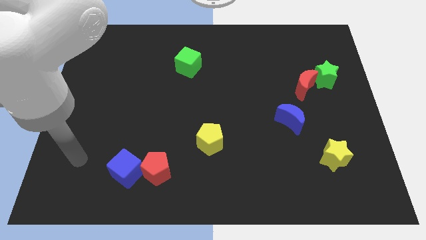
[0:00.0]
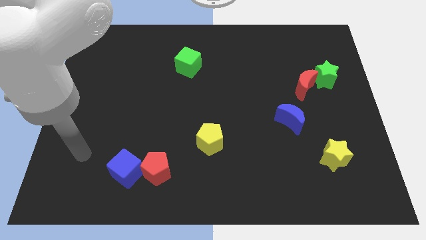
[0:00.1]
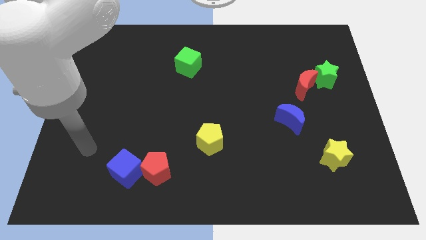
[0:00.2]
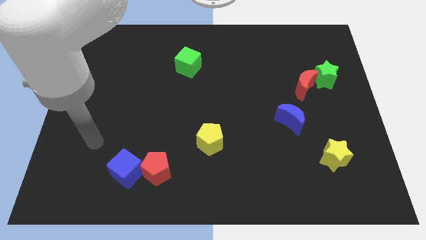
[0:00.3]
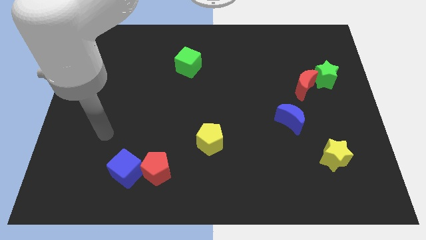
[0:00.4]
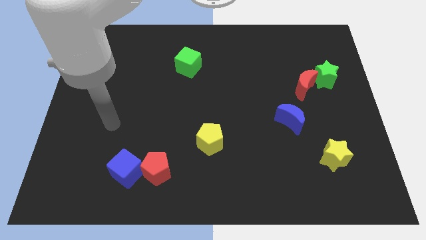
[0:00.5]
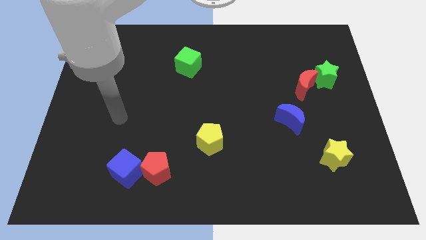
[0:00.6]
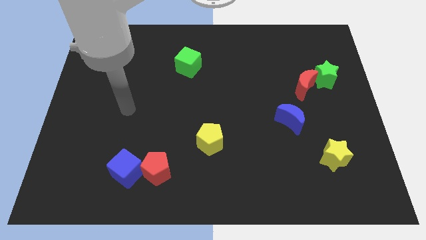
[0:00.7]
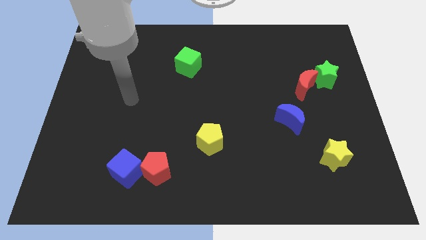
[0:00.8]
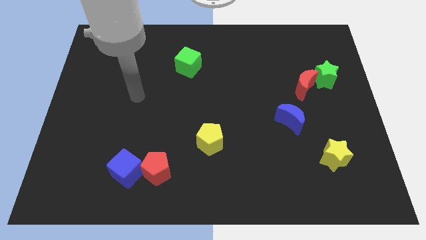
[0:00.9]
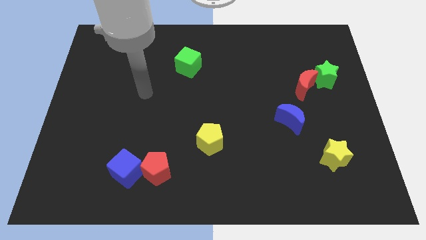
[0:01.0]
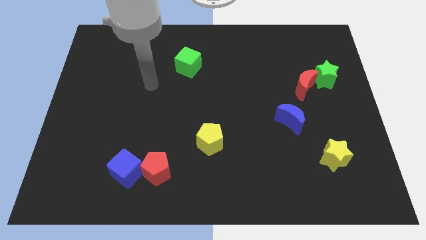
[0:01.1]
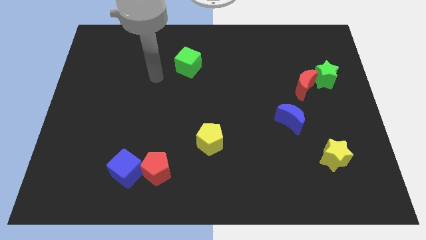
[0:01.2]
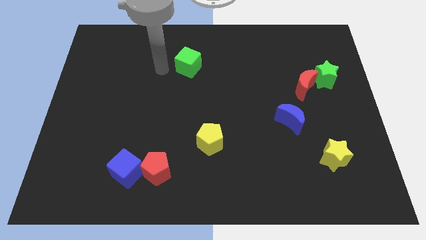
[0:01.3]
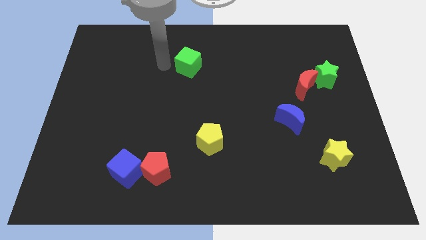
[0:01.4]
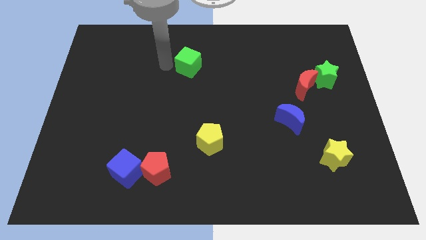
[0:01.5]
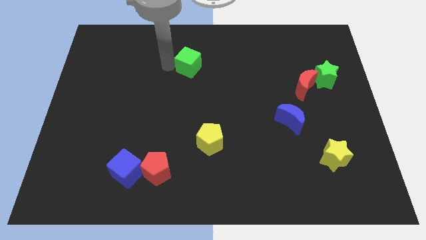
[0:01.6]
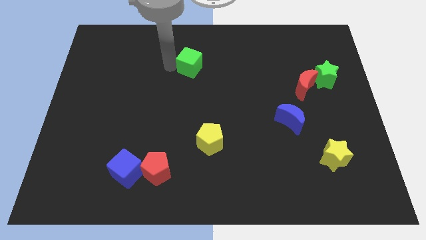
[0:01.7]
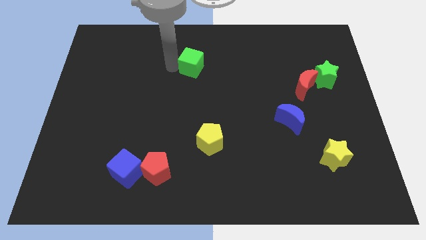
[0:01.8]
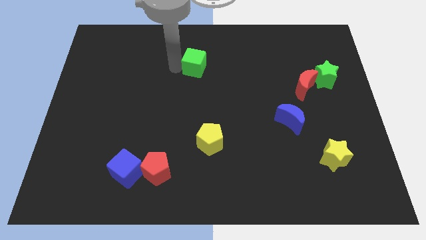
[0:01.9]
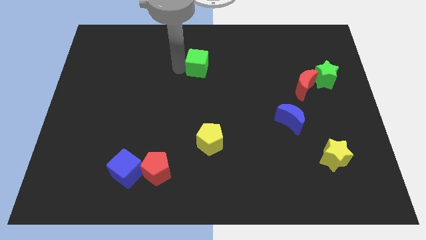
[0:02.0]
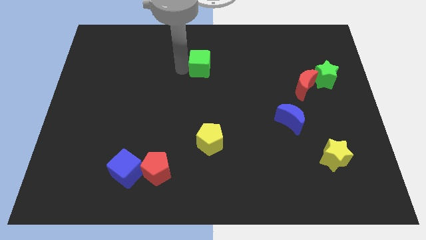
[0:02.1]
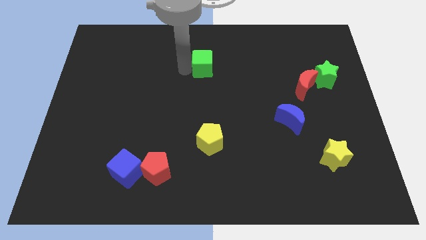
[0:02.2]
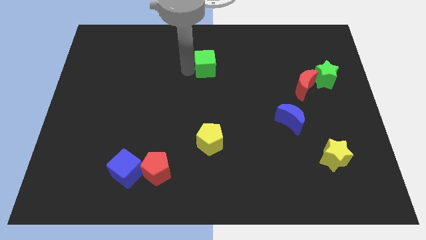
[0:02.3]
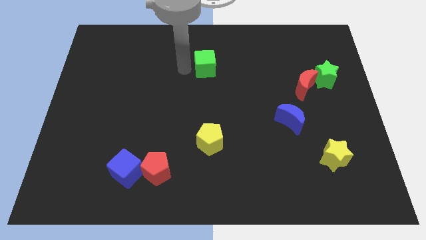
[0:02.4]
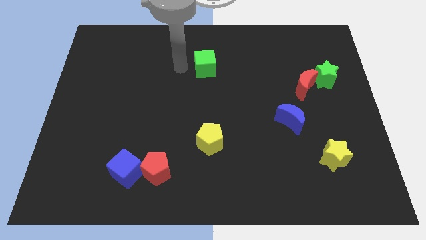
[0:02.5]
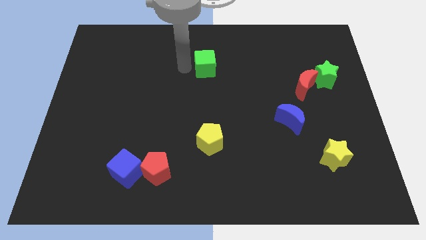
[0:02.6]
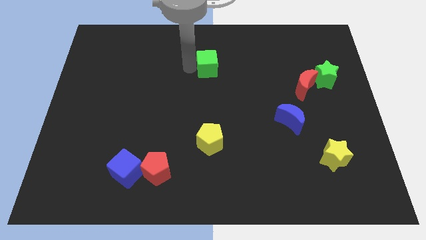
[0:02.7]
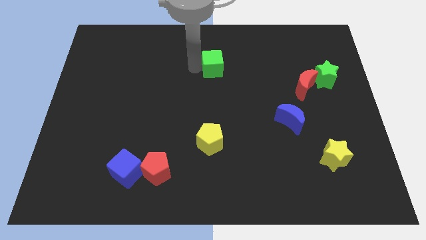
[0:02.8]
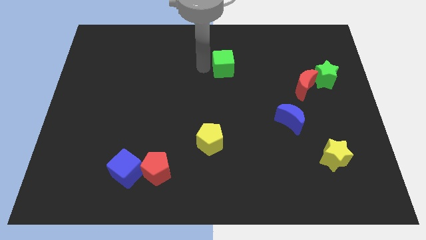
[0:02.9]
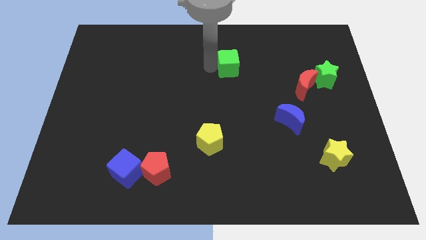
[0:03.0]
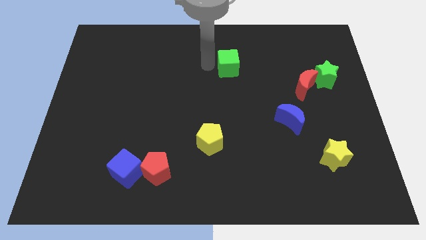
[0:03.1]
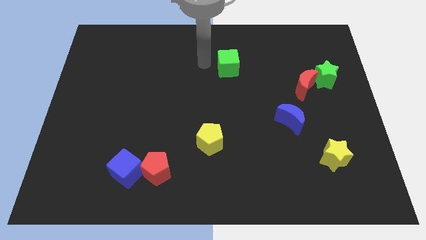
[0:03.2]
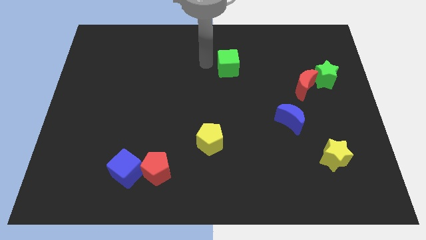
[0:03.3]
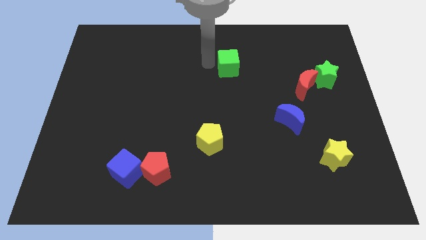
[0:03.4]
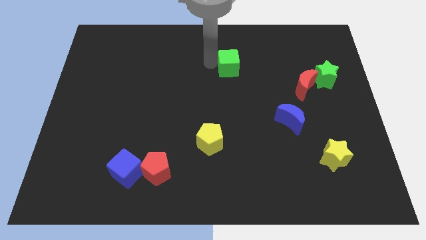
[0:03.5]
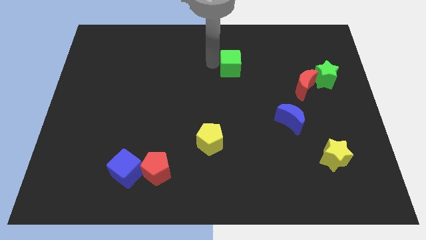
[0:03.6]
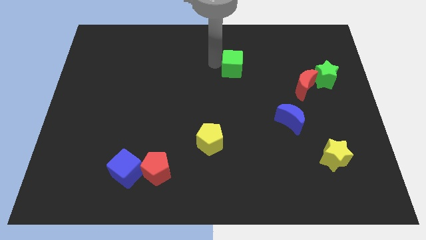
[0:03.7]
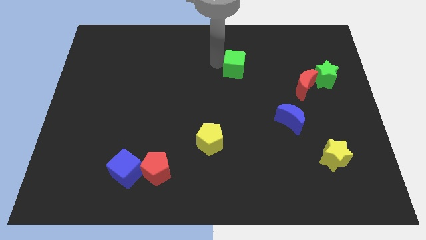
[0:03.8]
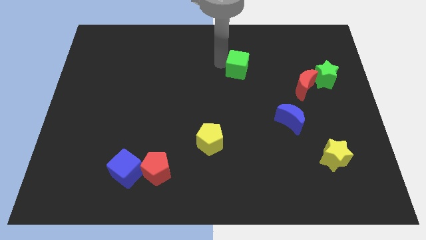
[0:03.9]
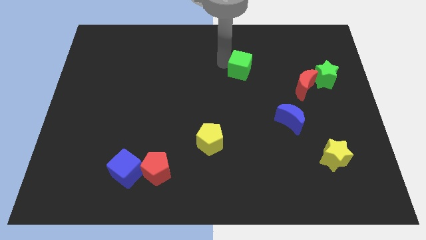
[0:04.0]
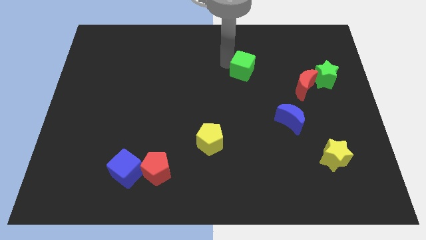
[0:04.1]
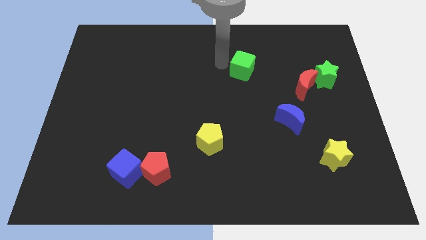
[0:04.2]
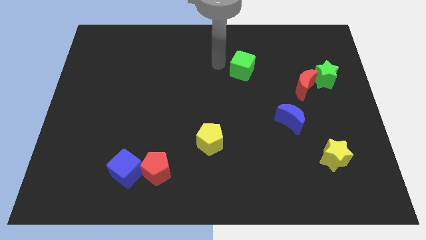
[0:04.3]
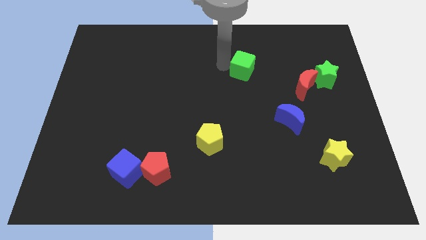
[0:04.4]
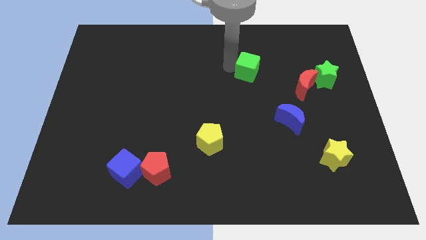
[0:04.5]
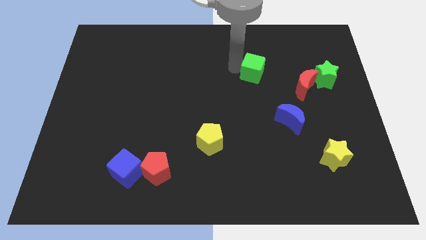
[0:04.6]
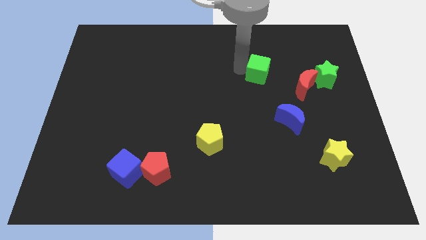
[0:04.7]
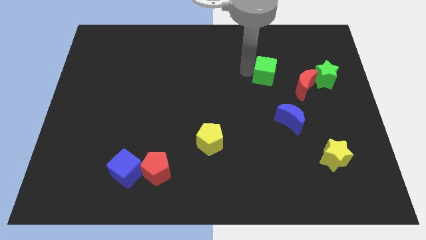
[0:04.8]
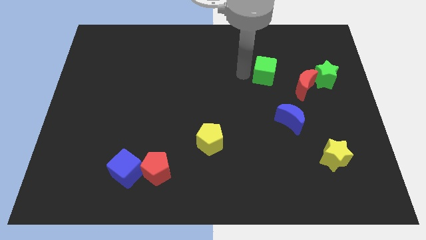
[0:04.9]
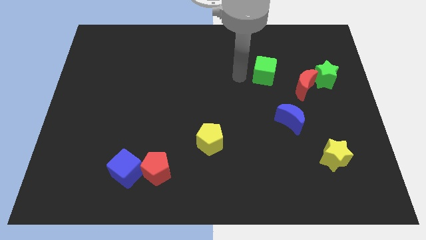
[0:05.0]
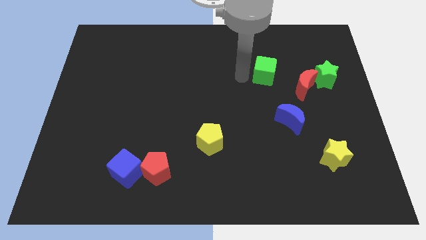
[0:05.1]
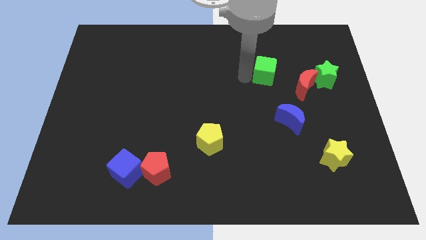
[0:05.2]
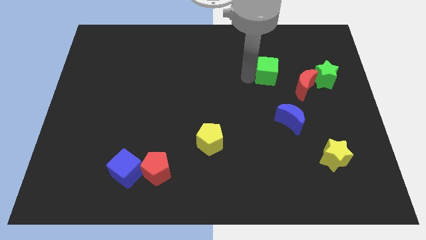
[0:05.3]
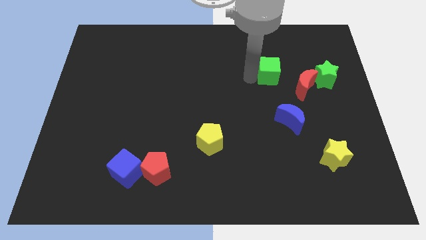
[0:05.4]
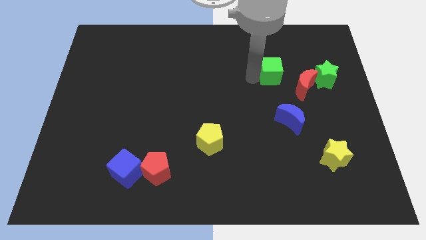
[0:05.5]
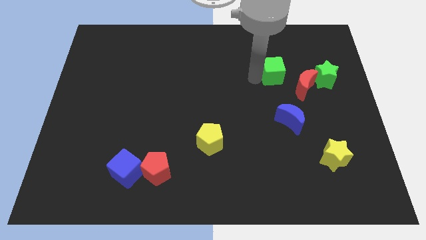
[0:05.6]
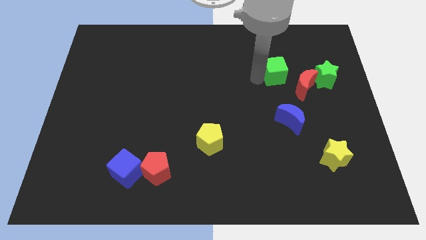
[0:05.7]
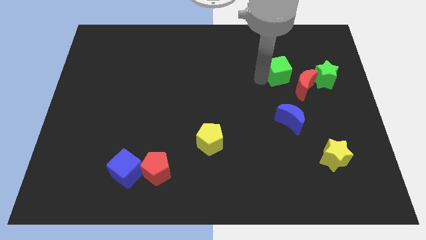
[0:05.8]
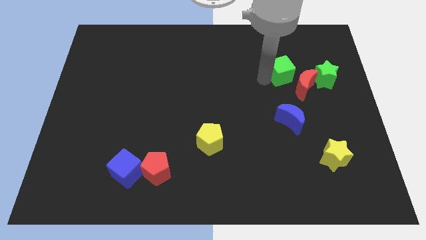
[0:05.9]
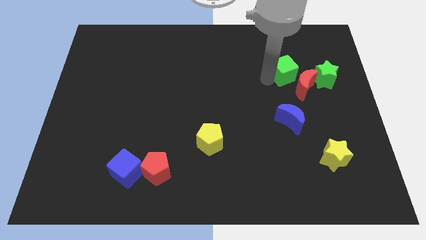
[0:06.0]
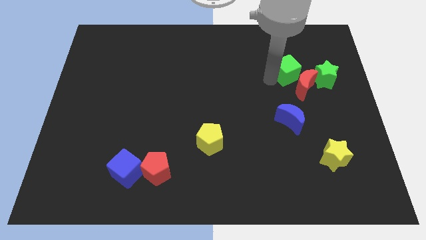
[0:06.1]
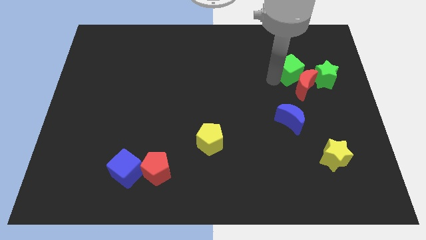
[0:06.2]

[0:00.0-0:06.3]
slide the green cube to the top left side of the green star

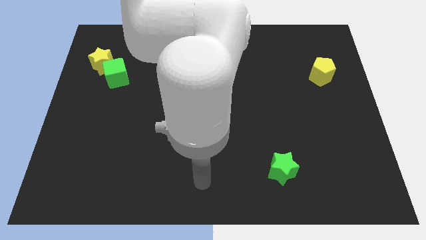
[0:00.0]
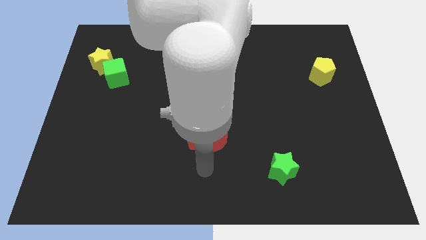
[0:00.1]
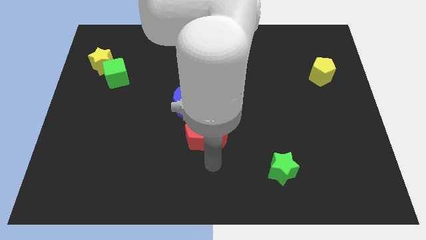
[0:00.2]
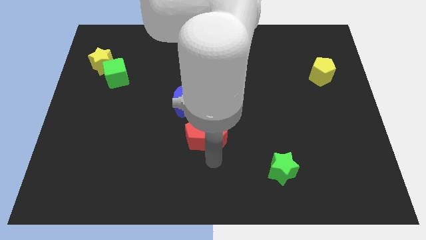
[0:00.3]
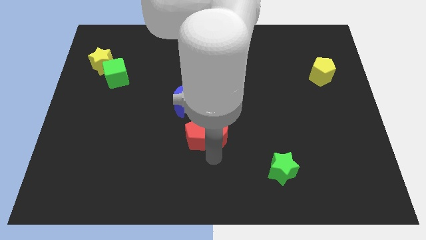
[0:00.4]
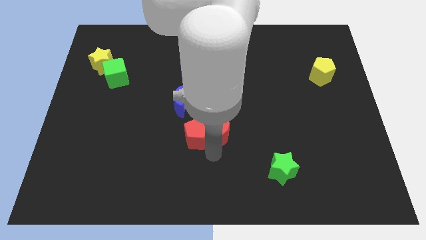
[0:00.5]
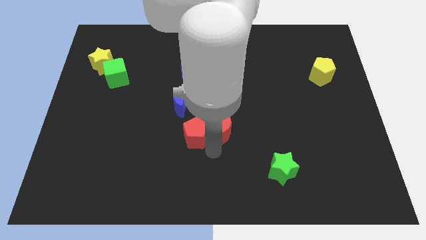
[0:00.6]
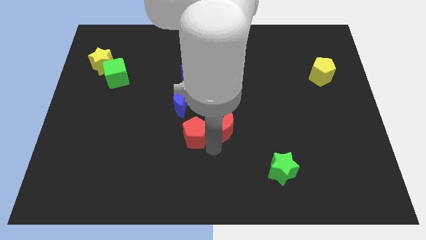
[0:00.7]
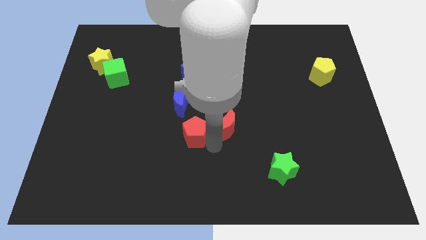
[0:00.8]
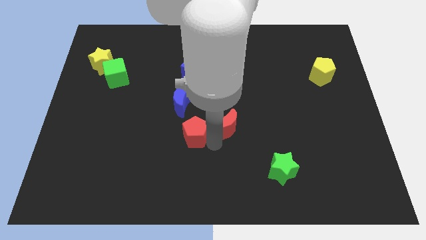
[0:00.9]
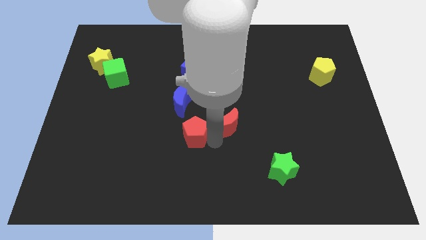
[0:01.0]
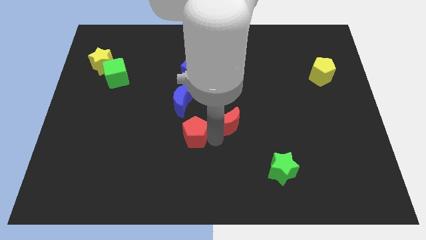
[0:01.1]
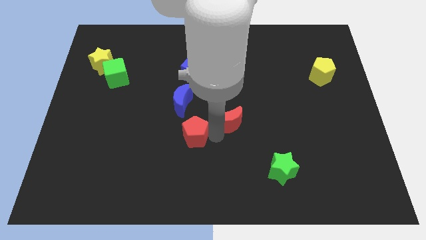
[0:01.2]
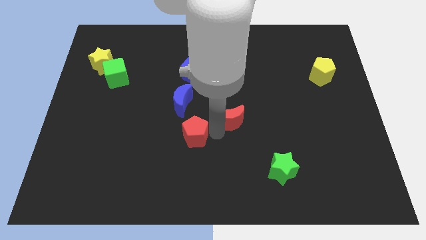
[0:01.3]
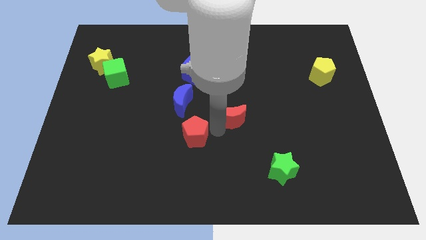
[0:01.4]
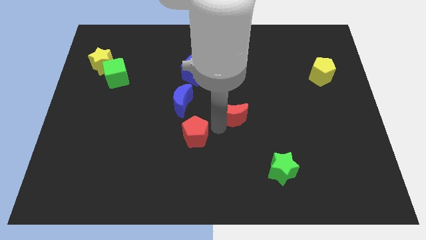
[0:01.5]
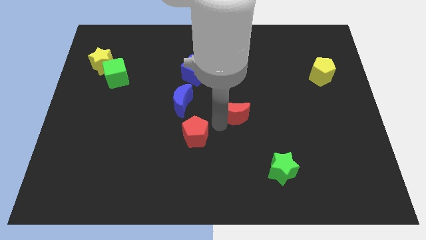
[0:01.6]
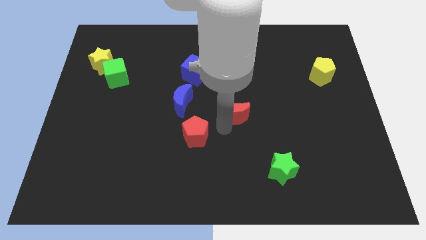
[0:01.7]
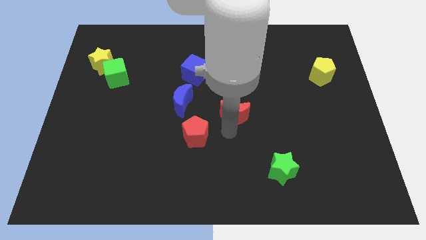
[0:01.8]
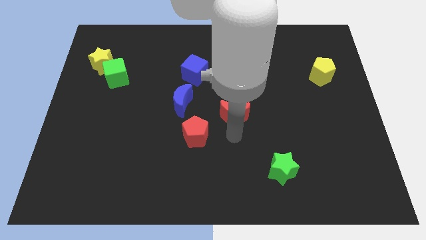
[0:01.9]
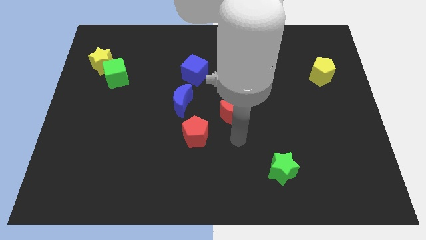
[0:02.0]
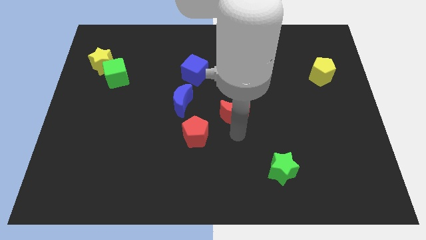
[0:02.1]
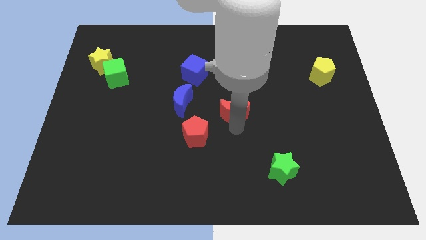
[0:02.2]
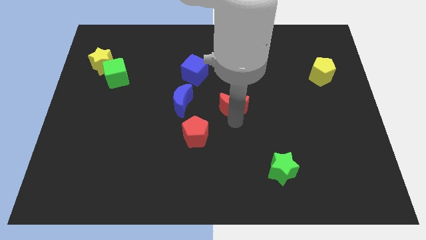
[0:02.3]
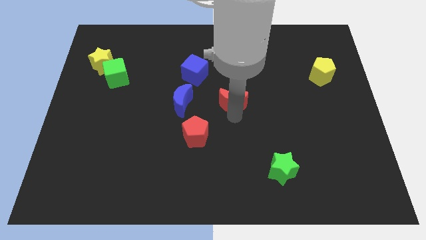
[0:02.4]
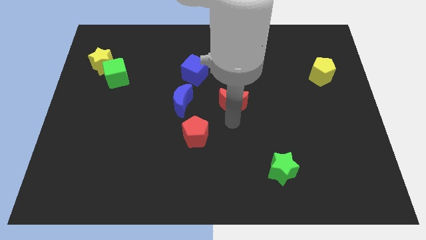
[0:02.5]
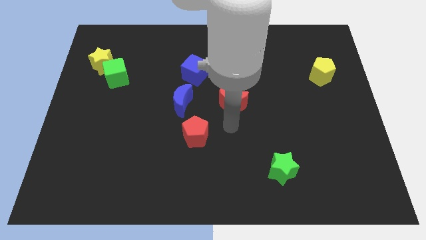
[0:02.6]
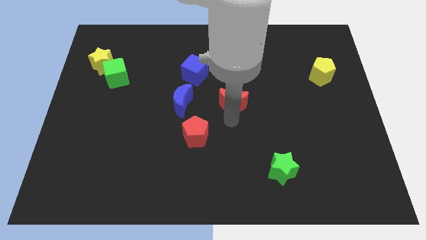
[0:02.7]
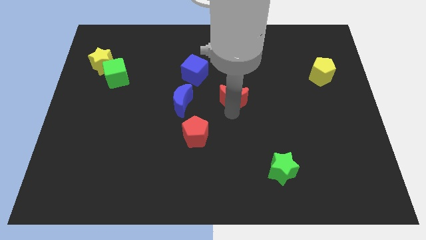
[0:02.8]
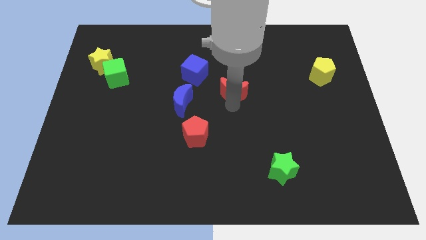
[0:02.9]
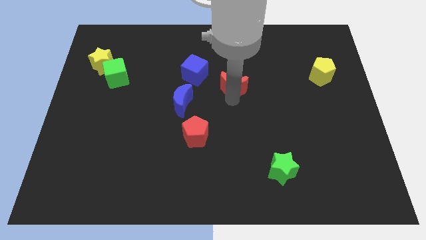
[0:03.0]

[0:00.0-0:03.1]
slide the red moon to the right side of the blue cube
